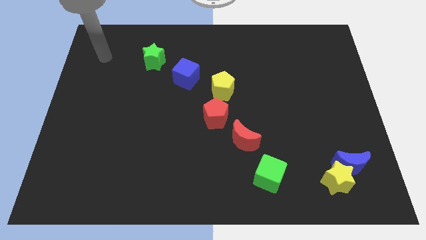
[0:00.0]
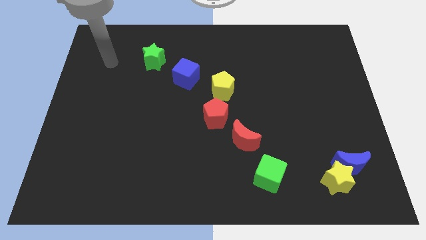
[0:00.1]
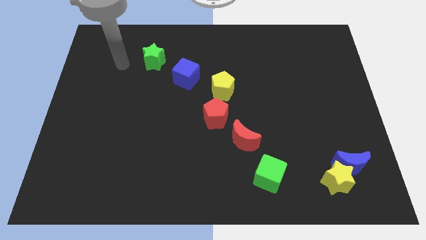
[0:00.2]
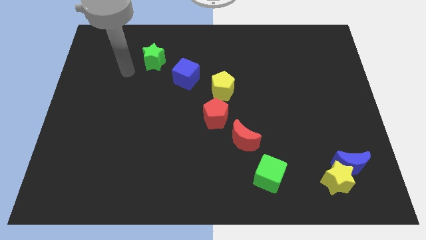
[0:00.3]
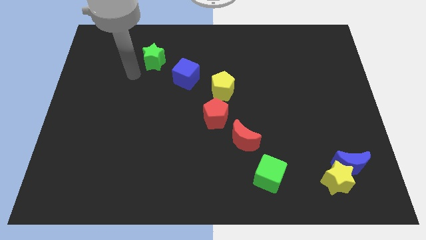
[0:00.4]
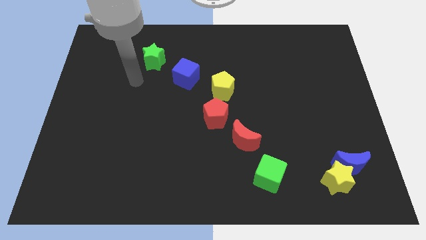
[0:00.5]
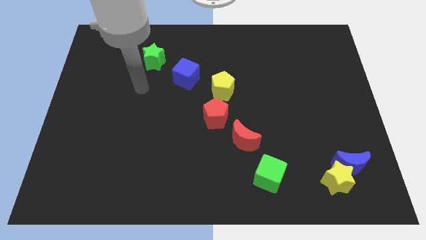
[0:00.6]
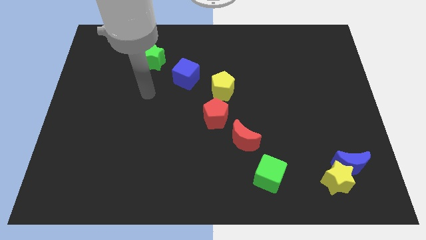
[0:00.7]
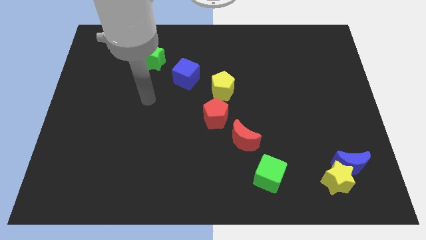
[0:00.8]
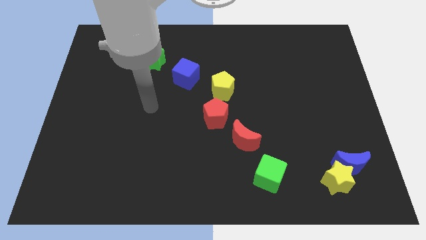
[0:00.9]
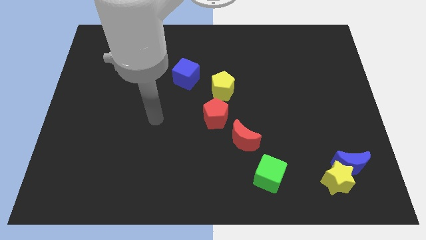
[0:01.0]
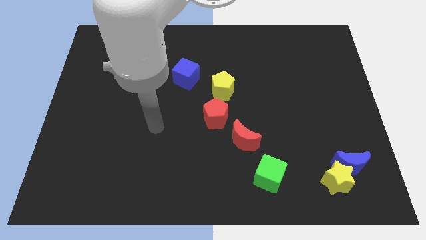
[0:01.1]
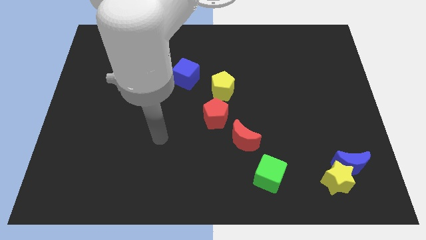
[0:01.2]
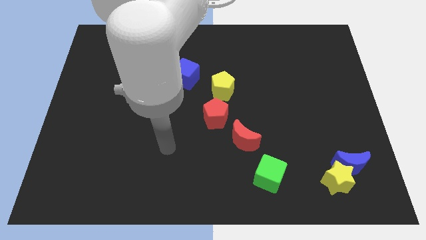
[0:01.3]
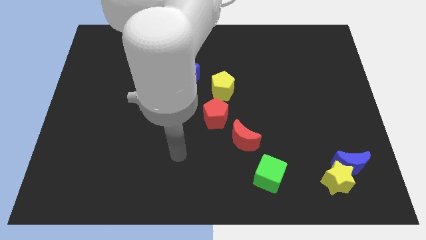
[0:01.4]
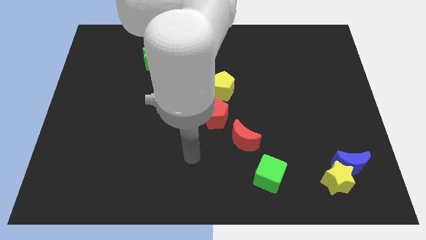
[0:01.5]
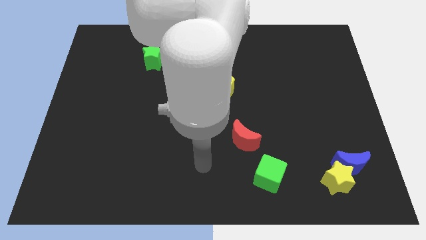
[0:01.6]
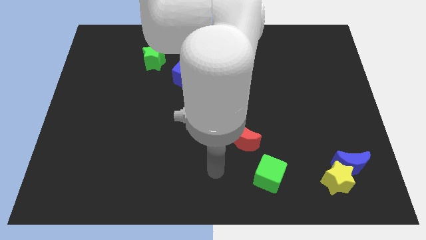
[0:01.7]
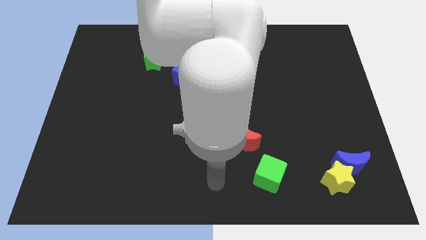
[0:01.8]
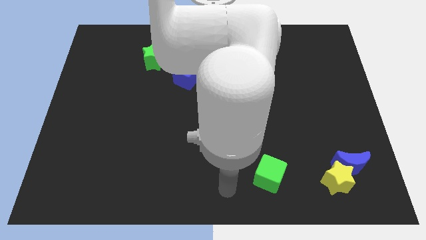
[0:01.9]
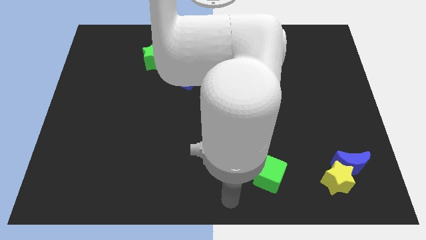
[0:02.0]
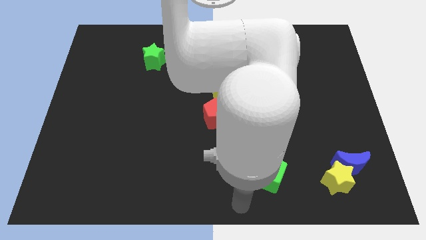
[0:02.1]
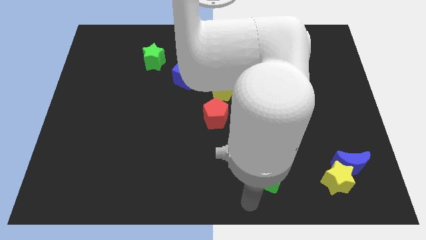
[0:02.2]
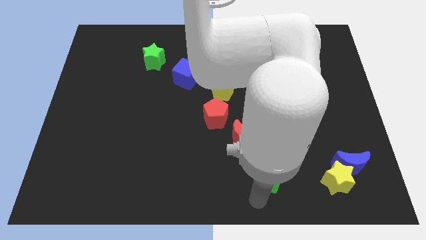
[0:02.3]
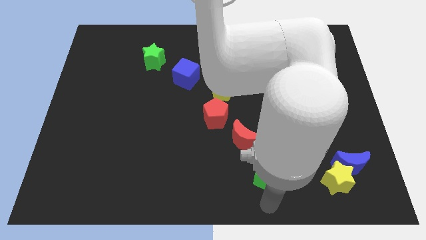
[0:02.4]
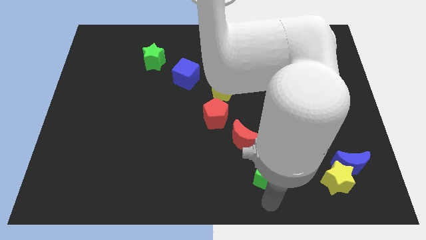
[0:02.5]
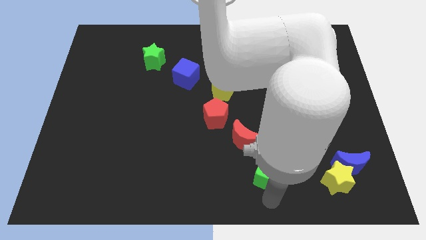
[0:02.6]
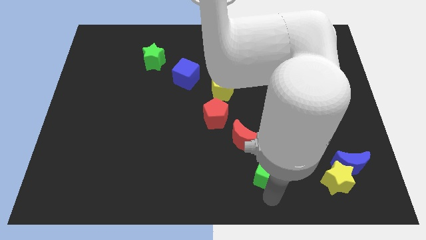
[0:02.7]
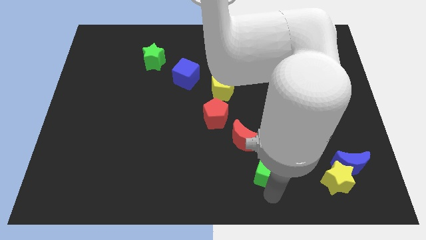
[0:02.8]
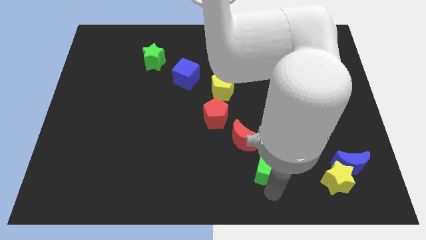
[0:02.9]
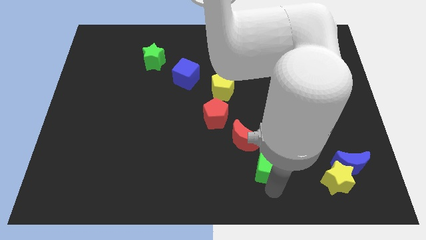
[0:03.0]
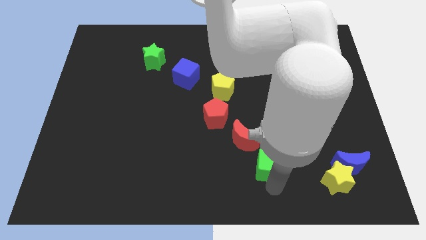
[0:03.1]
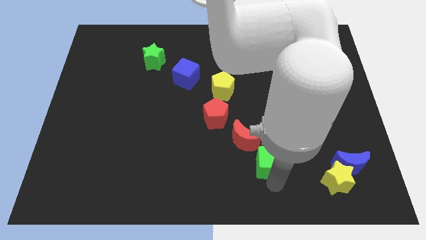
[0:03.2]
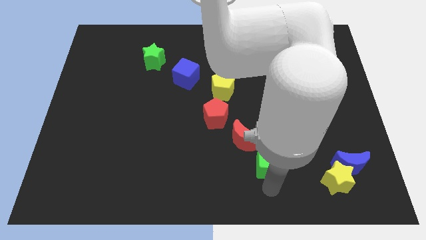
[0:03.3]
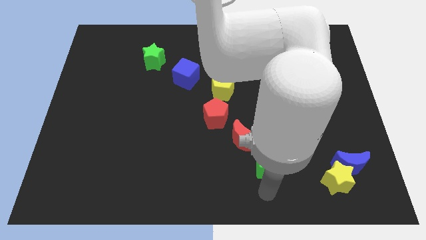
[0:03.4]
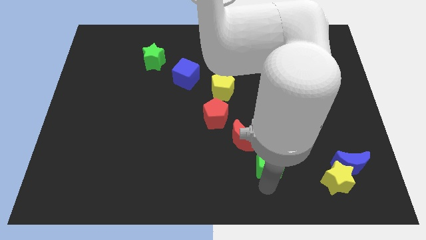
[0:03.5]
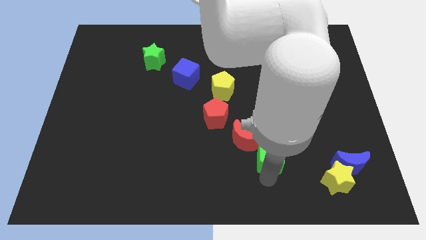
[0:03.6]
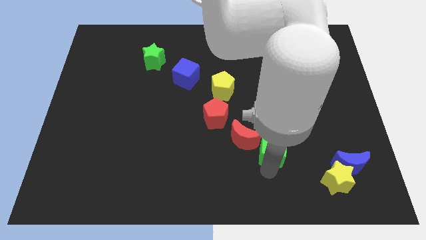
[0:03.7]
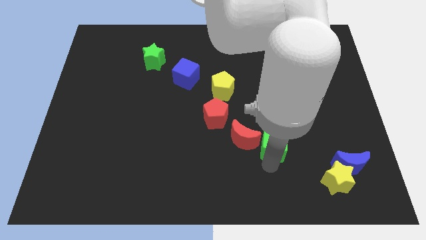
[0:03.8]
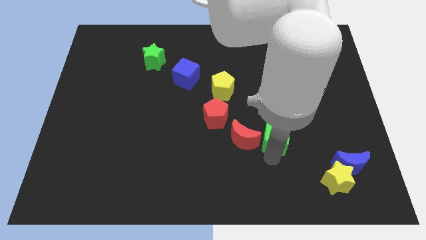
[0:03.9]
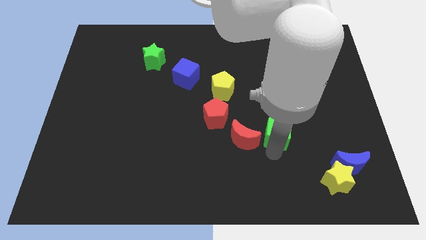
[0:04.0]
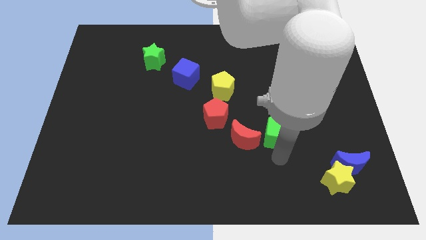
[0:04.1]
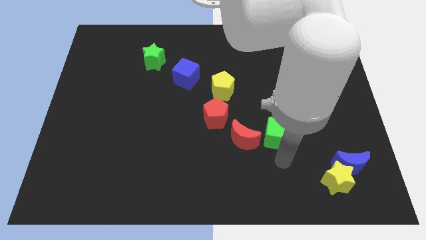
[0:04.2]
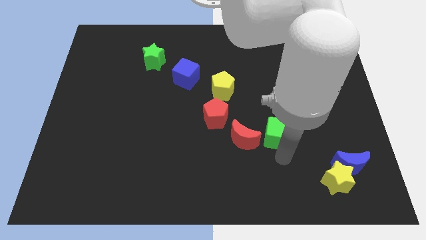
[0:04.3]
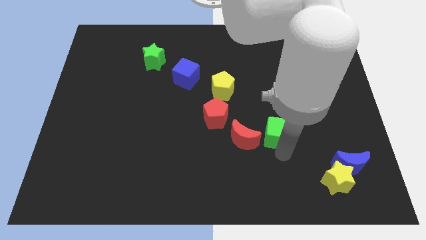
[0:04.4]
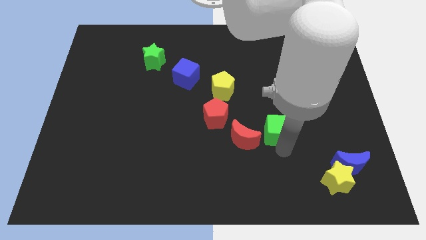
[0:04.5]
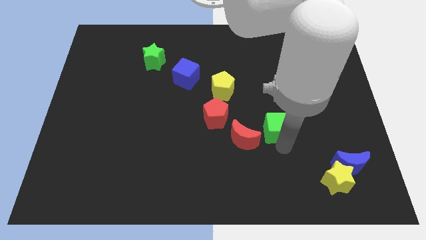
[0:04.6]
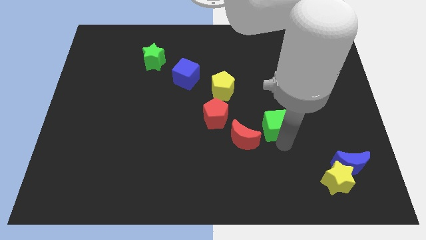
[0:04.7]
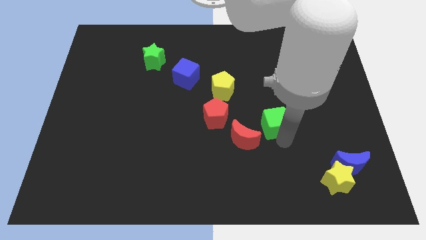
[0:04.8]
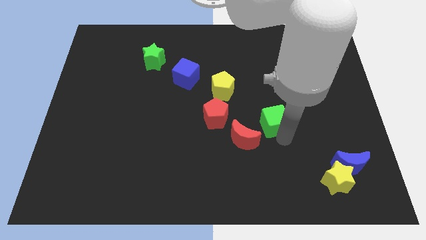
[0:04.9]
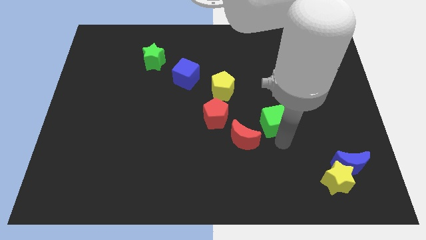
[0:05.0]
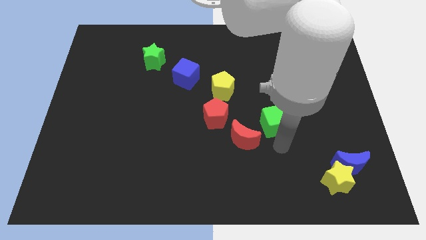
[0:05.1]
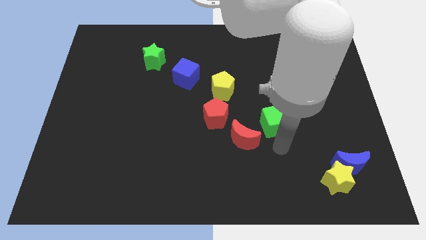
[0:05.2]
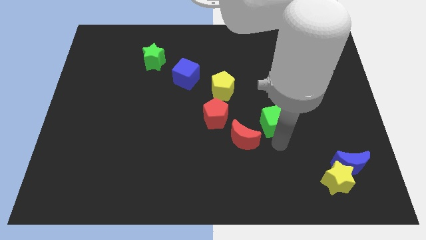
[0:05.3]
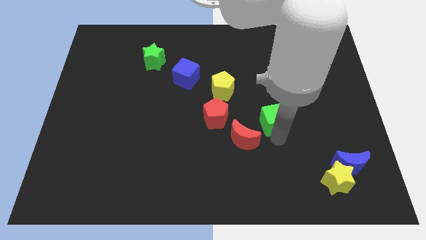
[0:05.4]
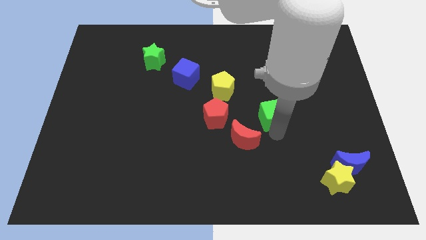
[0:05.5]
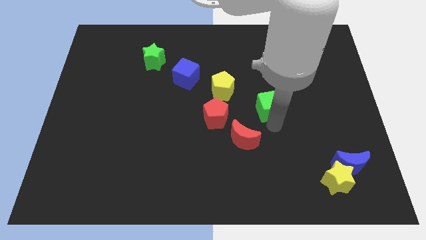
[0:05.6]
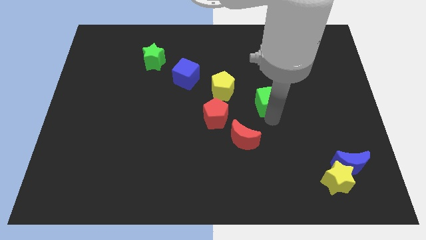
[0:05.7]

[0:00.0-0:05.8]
push the green cube to the right side of the yellow pentagon
